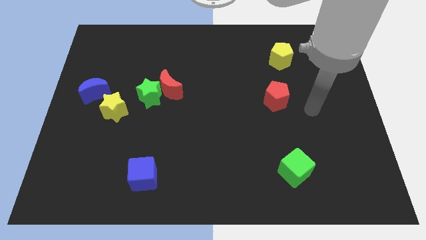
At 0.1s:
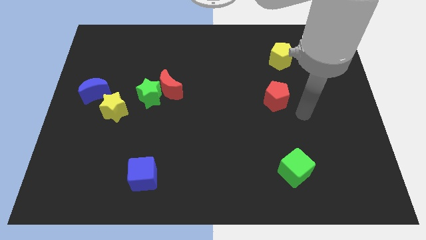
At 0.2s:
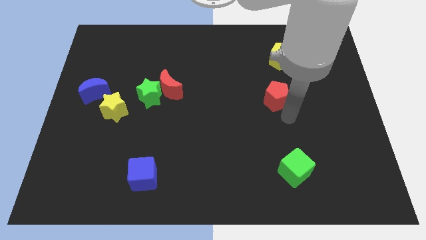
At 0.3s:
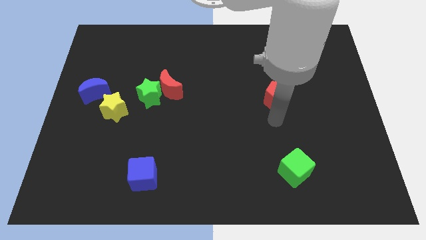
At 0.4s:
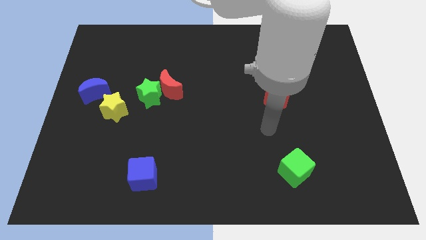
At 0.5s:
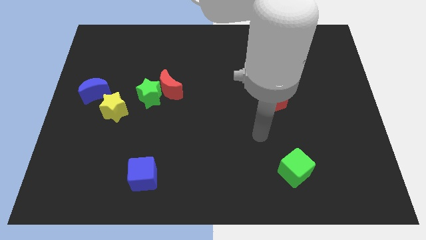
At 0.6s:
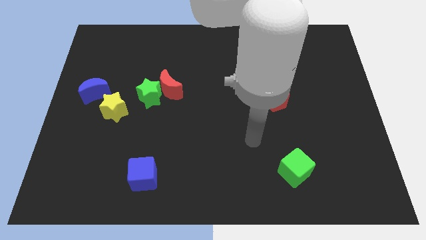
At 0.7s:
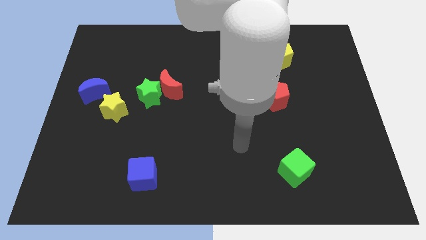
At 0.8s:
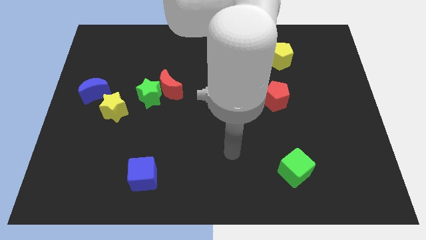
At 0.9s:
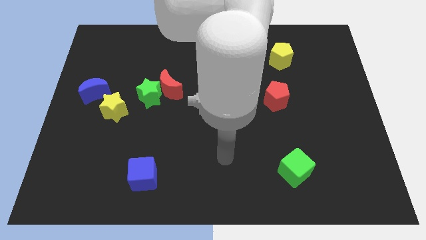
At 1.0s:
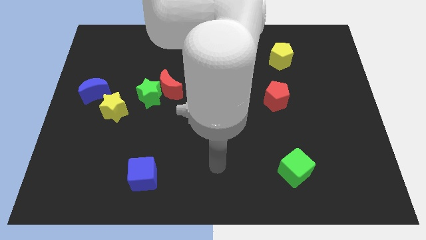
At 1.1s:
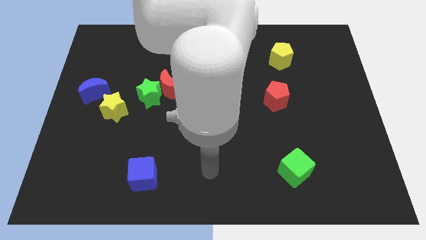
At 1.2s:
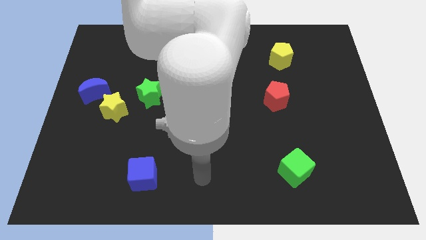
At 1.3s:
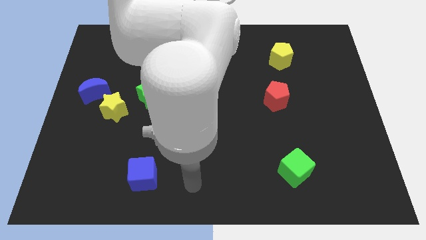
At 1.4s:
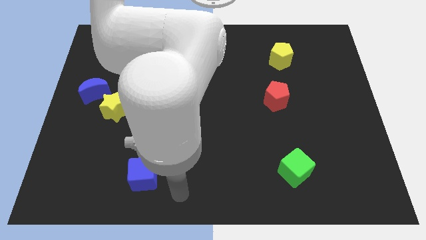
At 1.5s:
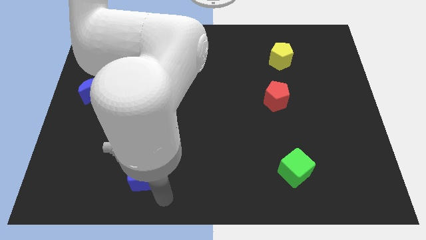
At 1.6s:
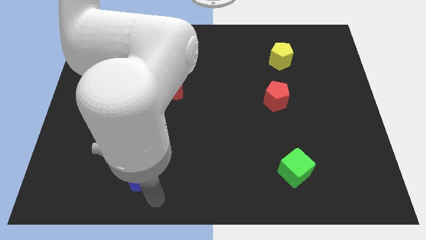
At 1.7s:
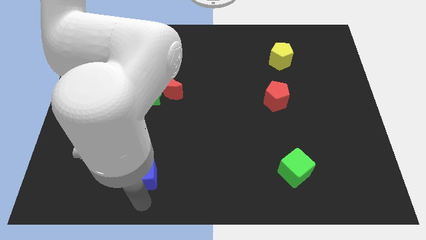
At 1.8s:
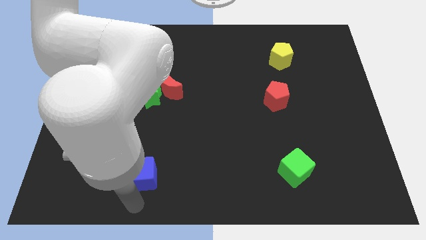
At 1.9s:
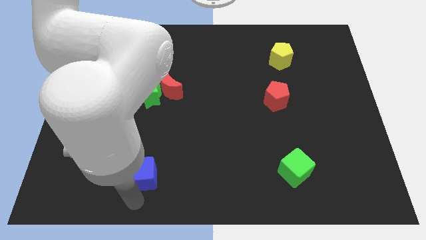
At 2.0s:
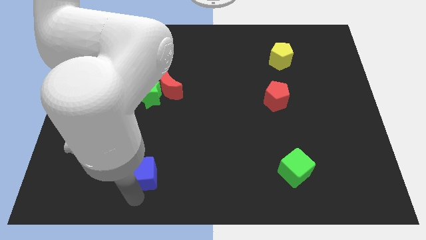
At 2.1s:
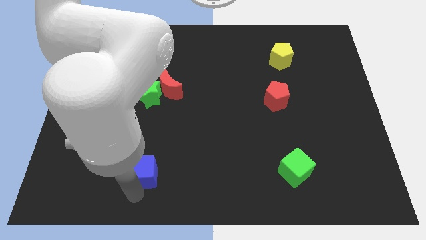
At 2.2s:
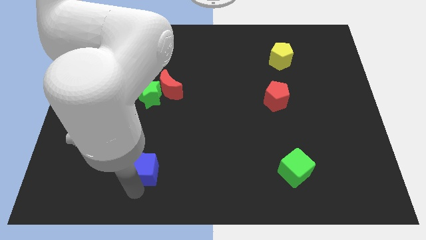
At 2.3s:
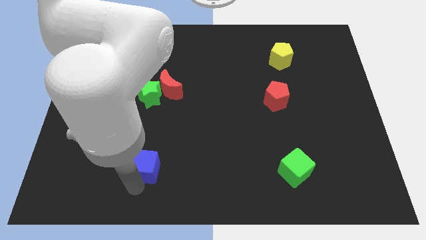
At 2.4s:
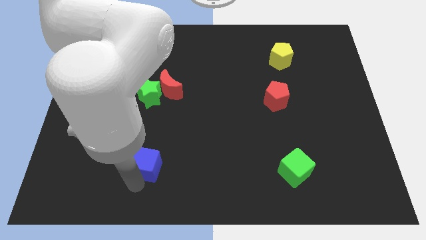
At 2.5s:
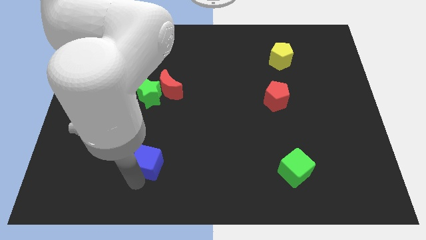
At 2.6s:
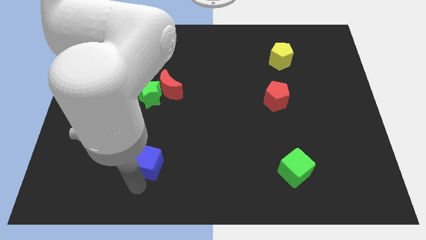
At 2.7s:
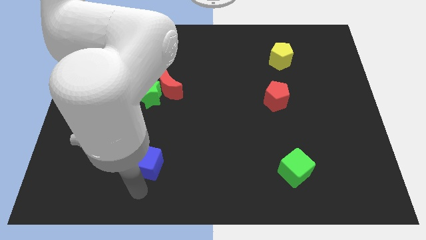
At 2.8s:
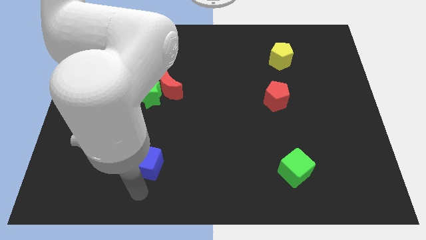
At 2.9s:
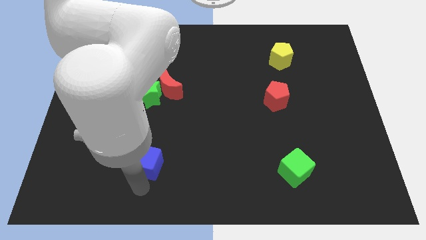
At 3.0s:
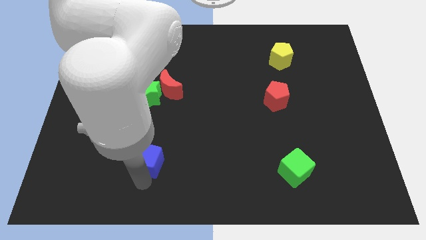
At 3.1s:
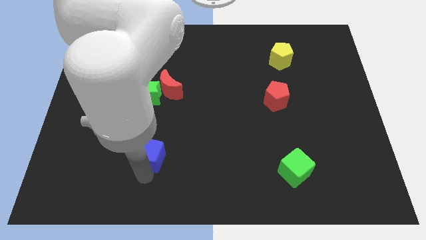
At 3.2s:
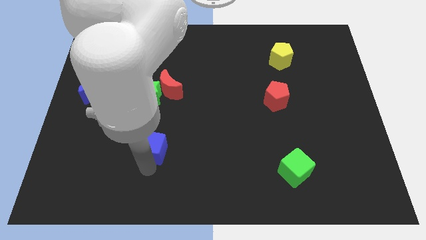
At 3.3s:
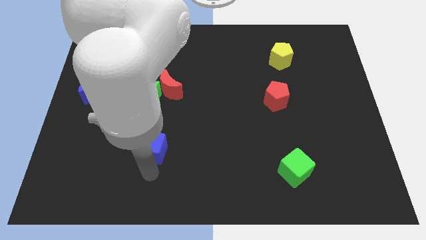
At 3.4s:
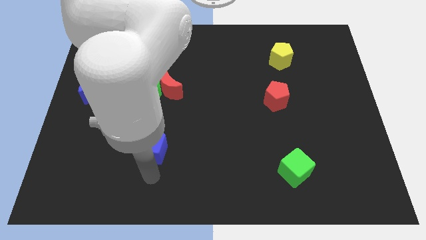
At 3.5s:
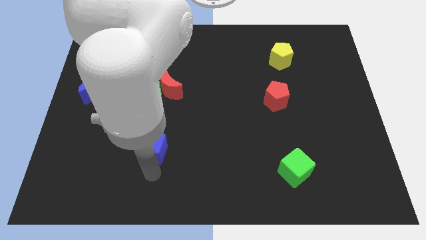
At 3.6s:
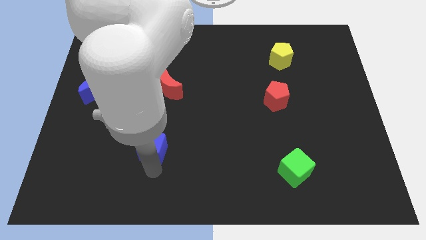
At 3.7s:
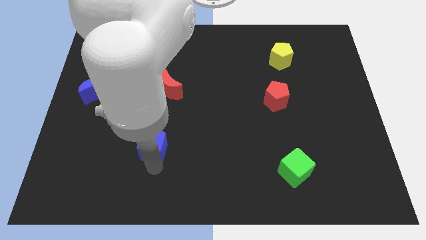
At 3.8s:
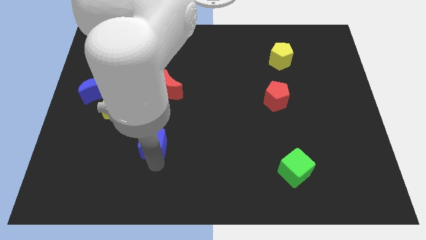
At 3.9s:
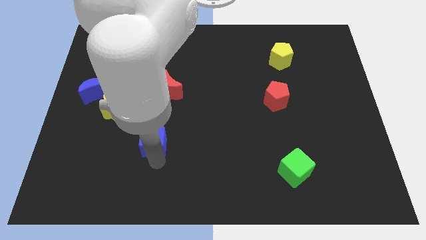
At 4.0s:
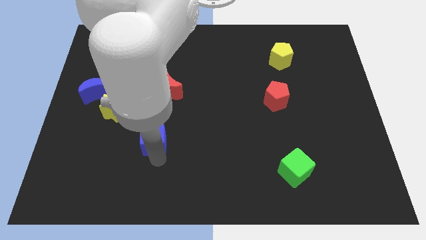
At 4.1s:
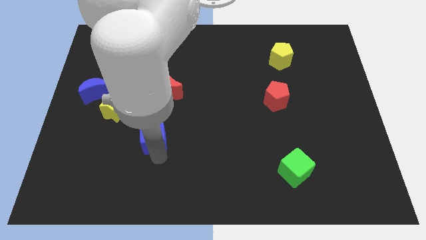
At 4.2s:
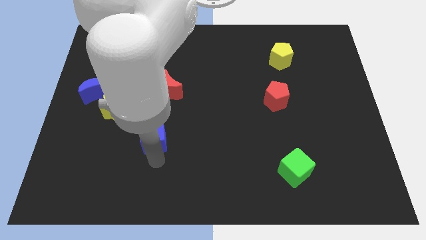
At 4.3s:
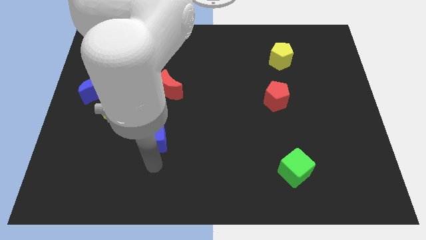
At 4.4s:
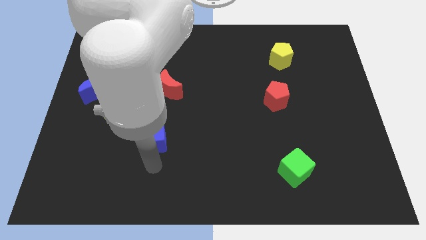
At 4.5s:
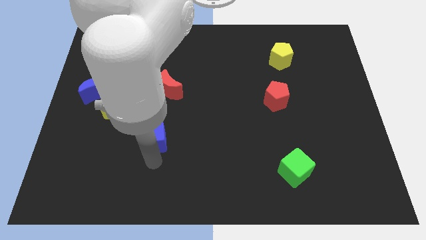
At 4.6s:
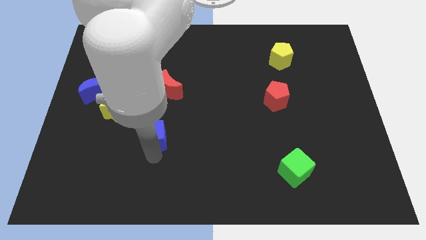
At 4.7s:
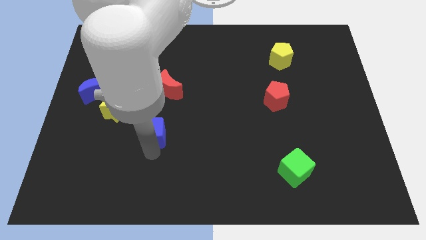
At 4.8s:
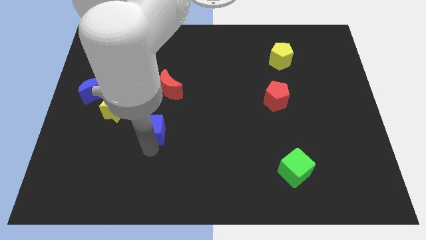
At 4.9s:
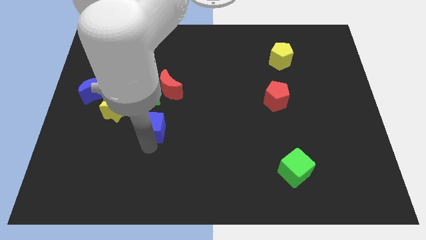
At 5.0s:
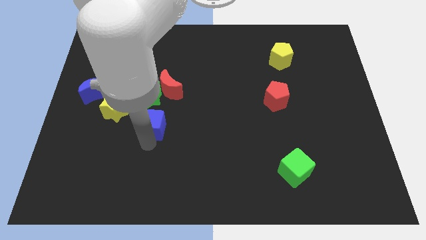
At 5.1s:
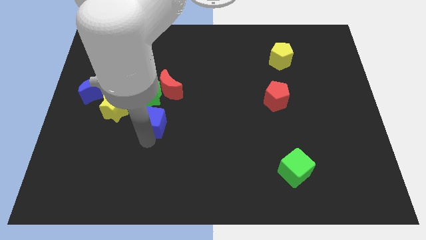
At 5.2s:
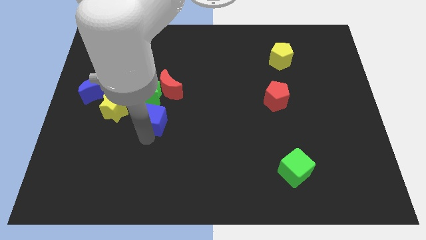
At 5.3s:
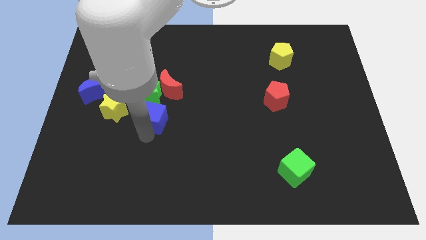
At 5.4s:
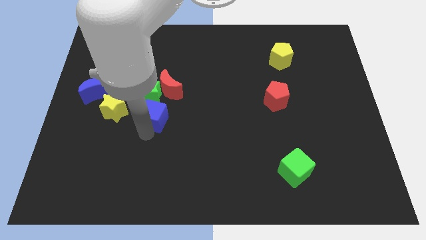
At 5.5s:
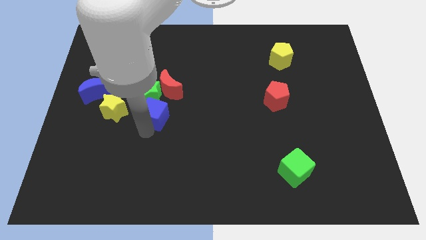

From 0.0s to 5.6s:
push the blue cube to the green star

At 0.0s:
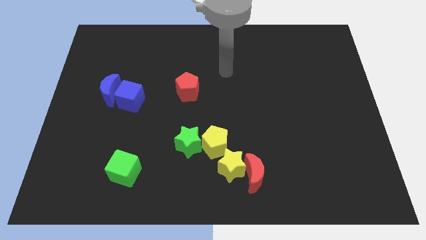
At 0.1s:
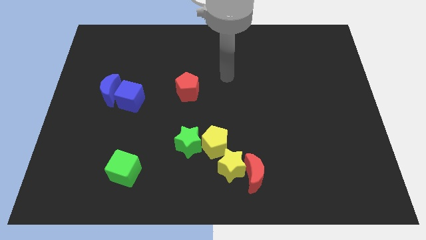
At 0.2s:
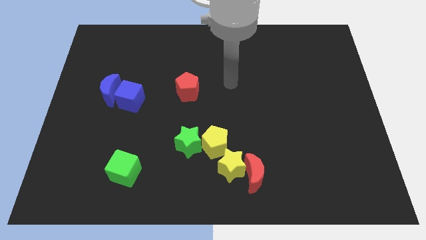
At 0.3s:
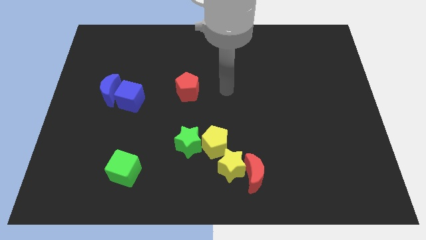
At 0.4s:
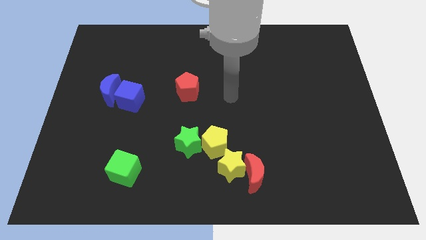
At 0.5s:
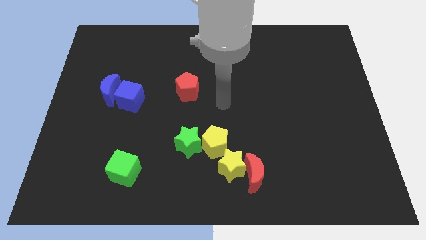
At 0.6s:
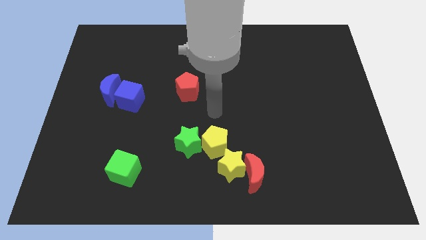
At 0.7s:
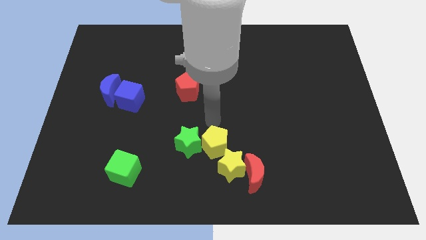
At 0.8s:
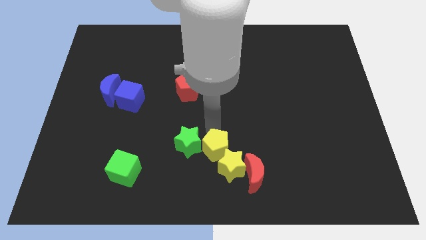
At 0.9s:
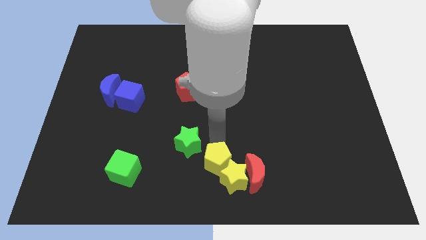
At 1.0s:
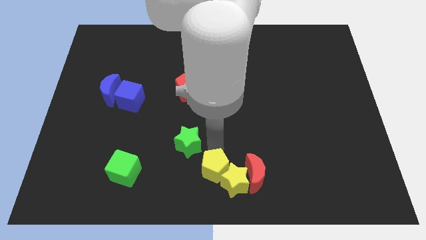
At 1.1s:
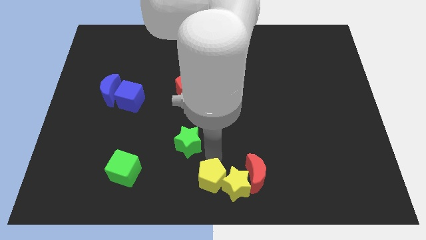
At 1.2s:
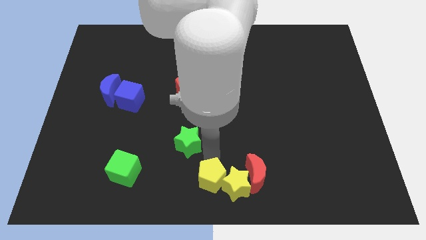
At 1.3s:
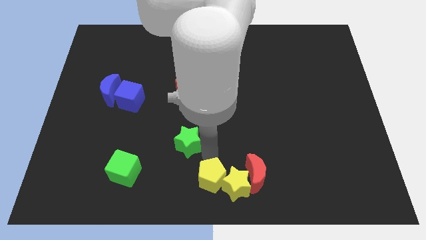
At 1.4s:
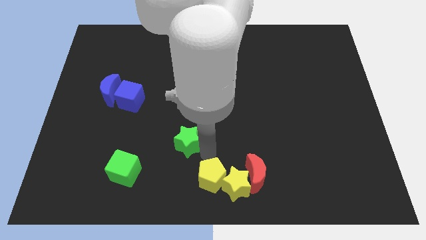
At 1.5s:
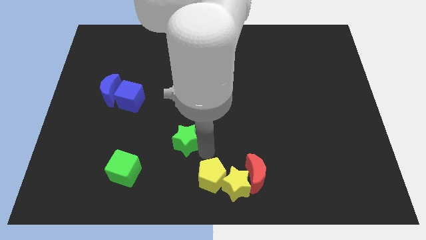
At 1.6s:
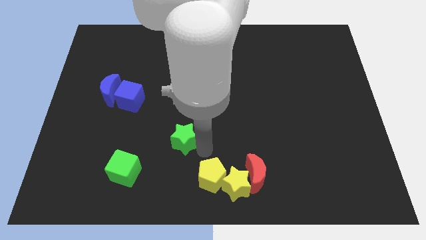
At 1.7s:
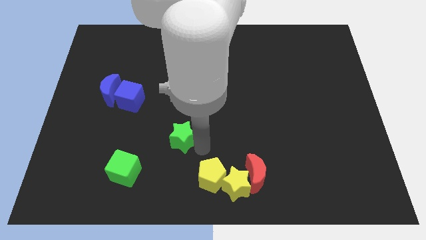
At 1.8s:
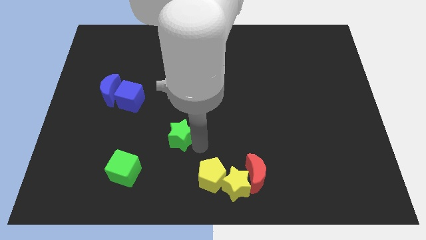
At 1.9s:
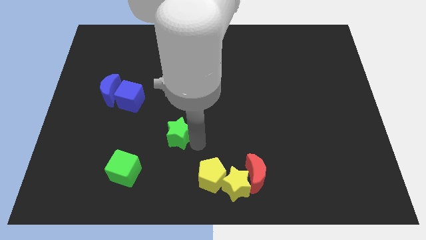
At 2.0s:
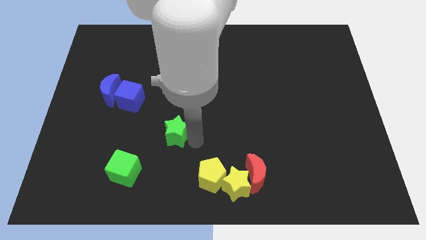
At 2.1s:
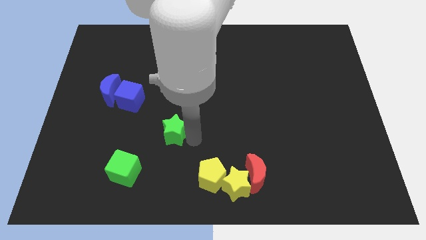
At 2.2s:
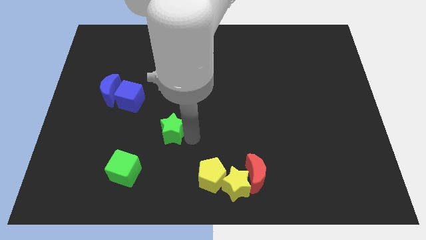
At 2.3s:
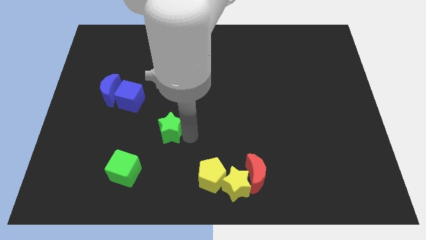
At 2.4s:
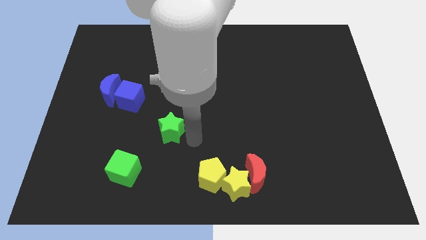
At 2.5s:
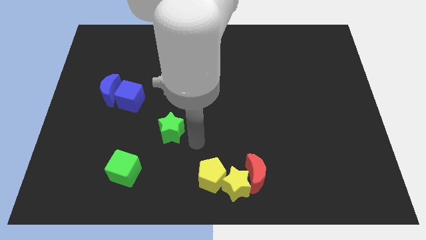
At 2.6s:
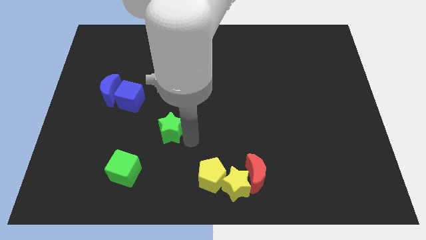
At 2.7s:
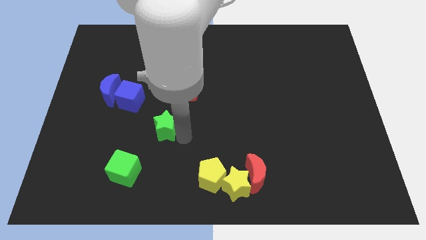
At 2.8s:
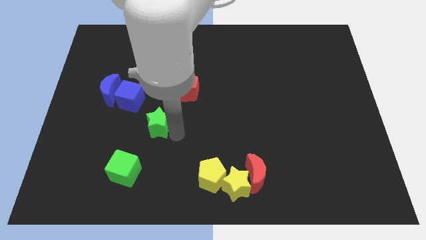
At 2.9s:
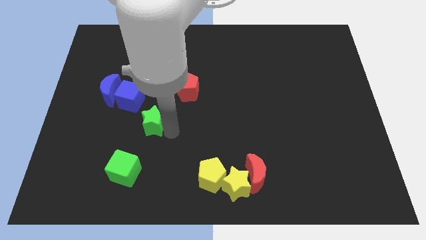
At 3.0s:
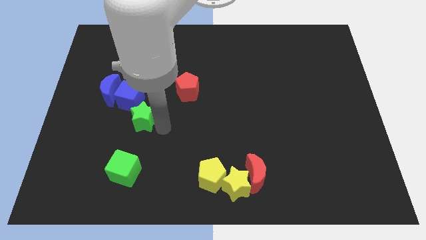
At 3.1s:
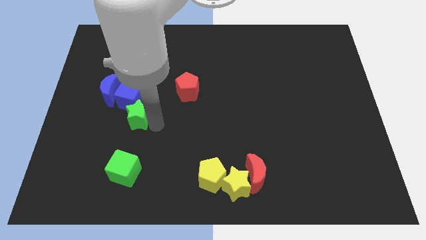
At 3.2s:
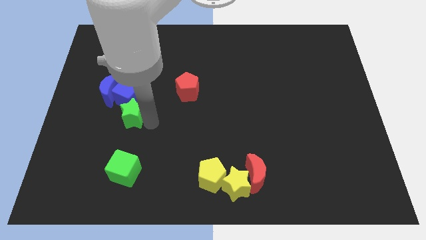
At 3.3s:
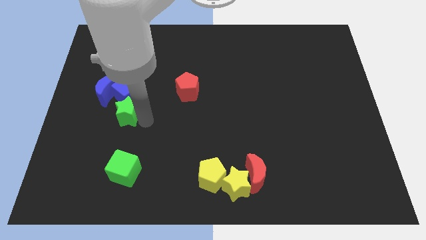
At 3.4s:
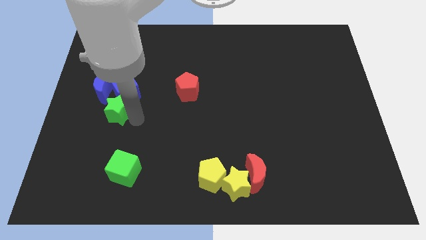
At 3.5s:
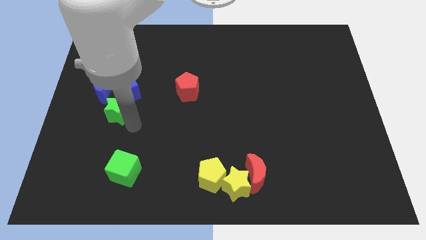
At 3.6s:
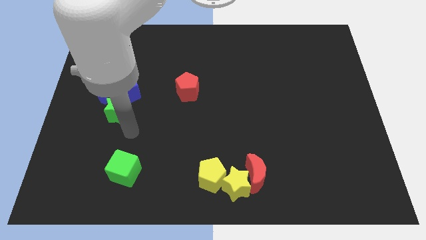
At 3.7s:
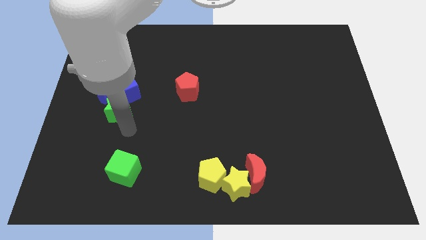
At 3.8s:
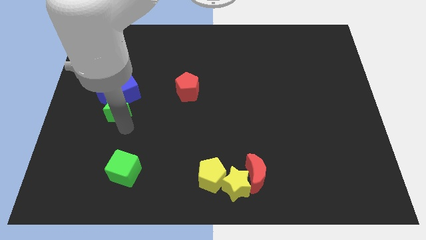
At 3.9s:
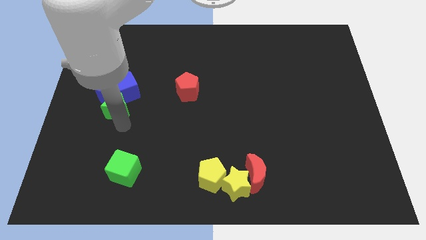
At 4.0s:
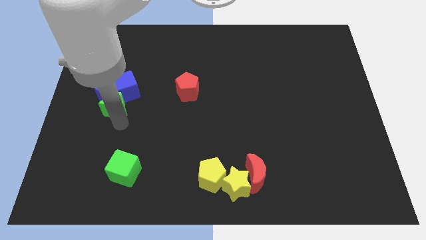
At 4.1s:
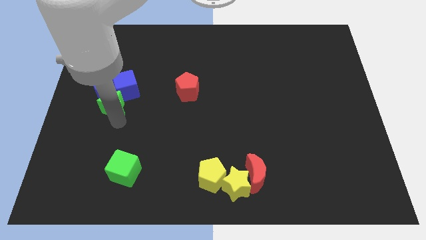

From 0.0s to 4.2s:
put the green star close to the blue moon
